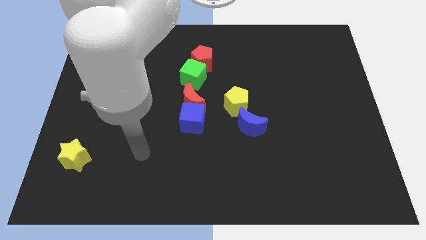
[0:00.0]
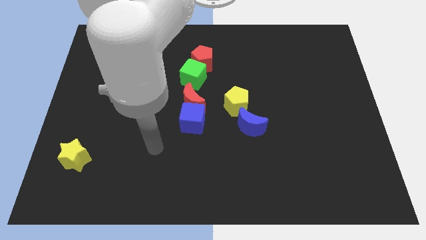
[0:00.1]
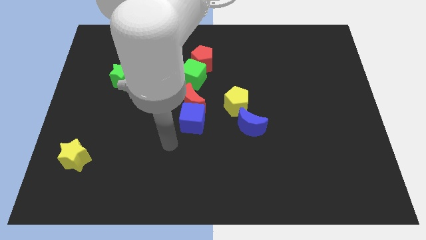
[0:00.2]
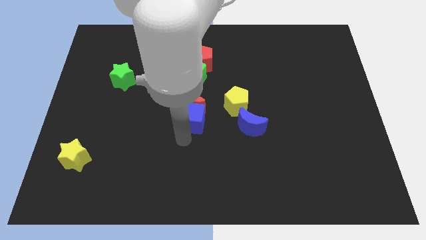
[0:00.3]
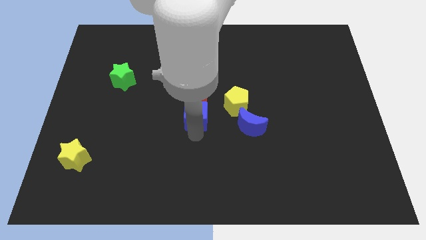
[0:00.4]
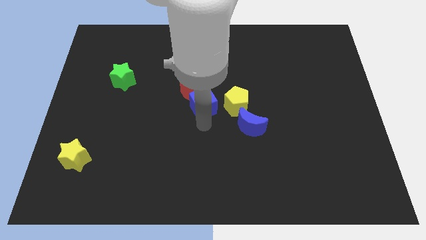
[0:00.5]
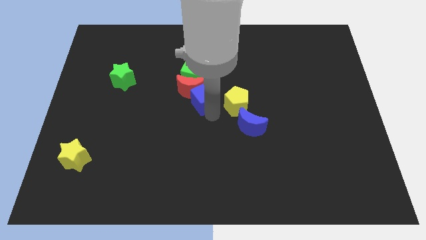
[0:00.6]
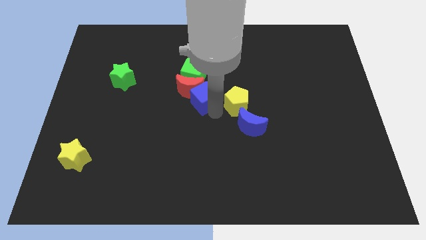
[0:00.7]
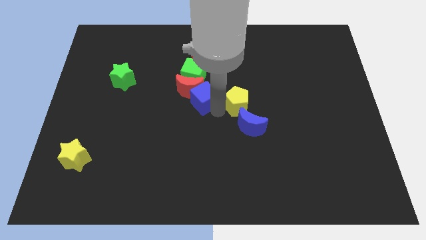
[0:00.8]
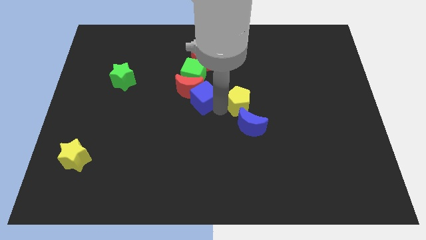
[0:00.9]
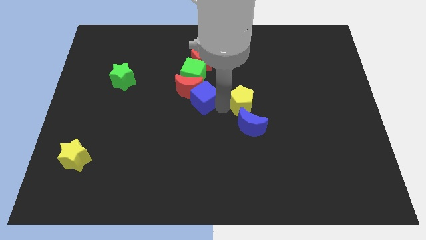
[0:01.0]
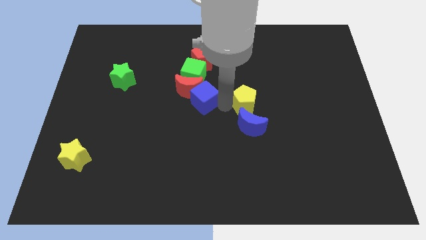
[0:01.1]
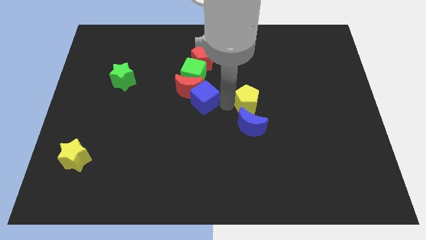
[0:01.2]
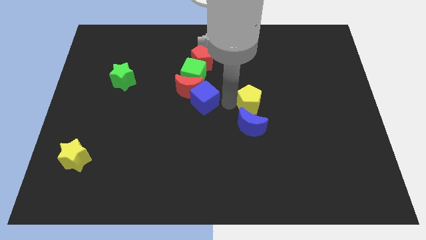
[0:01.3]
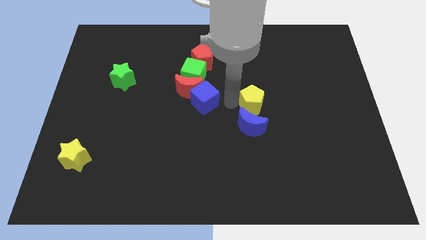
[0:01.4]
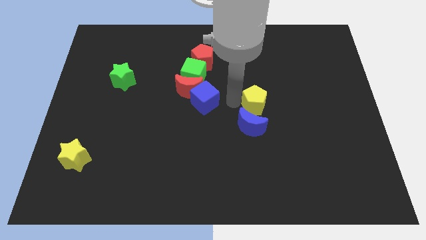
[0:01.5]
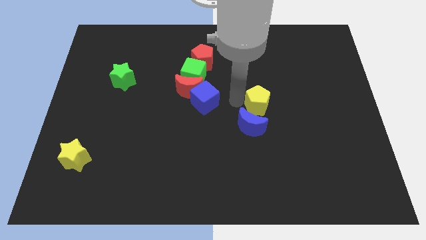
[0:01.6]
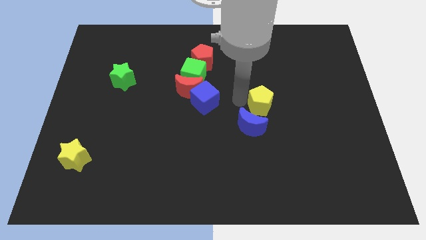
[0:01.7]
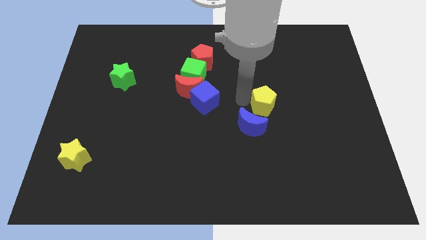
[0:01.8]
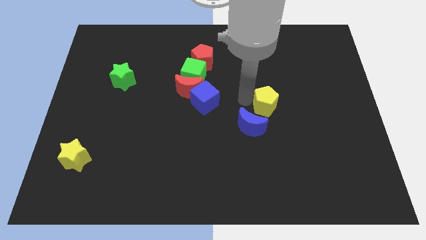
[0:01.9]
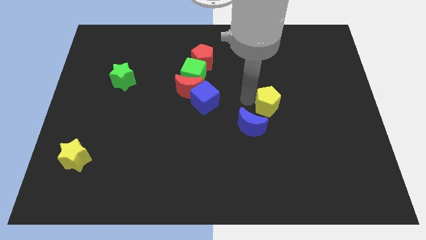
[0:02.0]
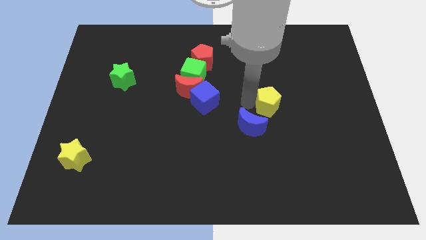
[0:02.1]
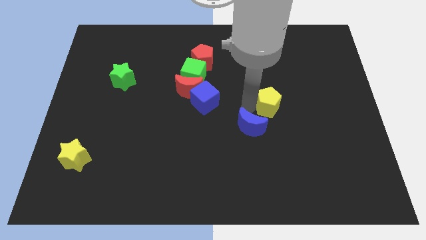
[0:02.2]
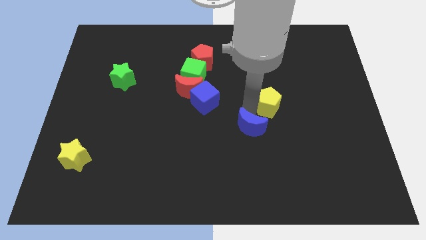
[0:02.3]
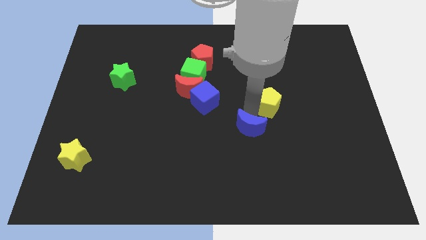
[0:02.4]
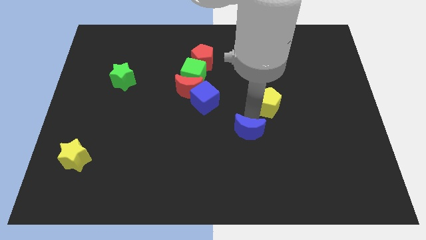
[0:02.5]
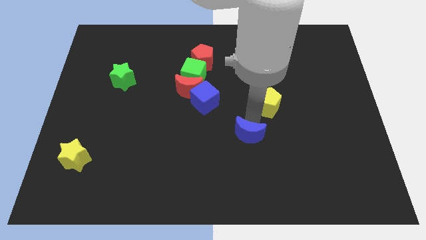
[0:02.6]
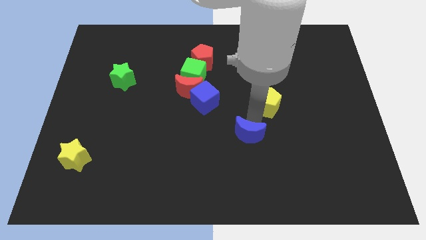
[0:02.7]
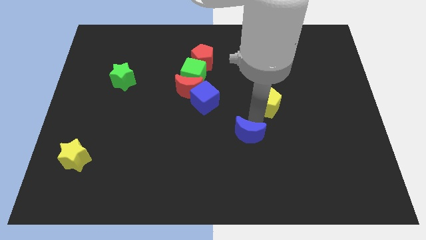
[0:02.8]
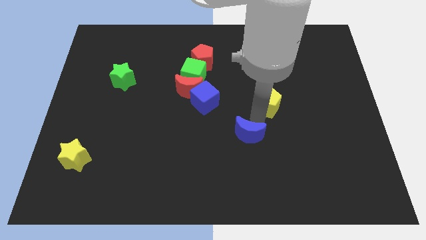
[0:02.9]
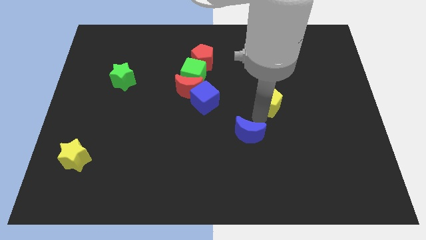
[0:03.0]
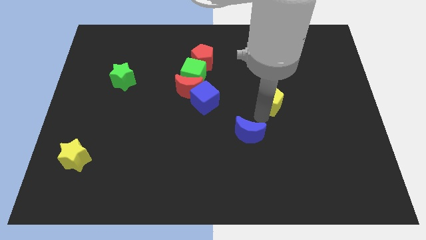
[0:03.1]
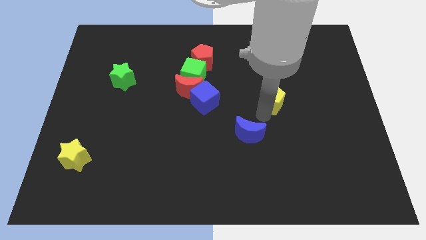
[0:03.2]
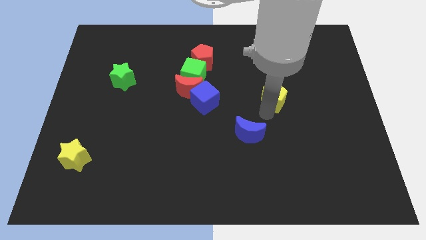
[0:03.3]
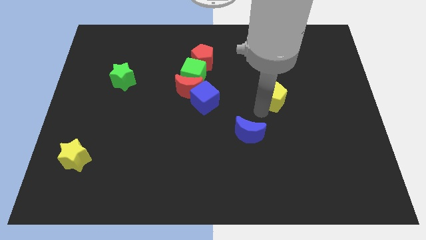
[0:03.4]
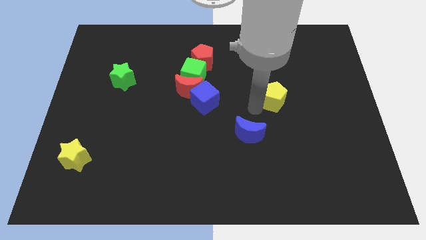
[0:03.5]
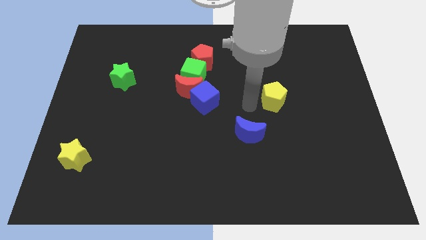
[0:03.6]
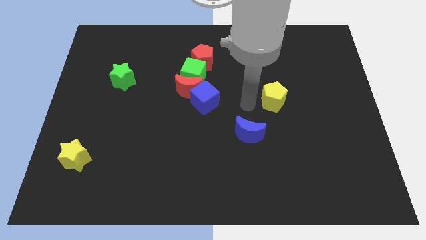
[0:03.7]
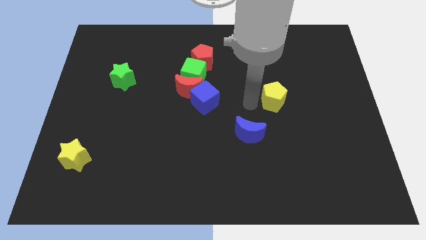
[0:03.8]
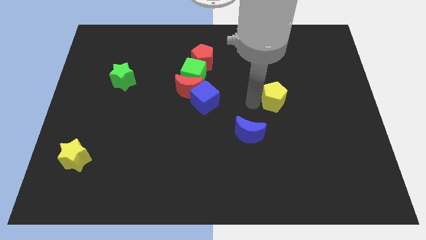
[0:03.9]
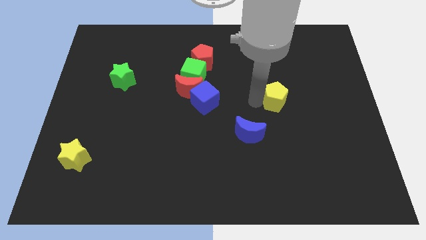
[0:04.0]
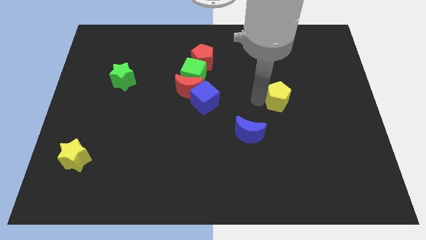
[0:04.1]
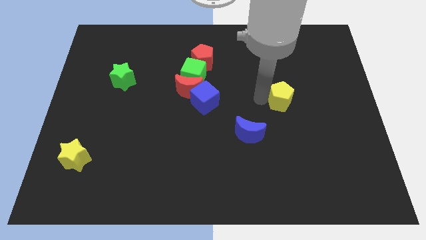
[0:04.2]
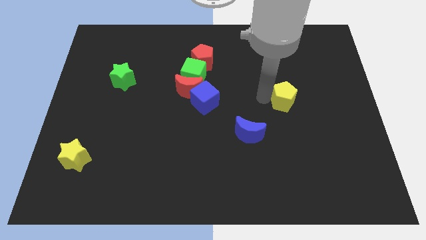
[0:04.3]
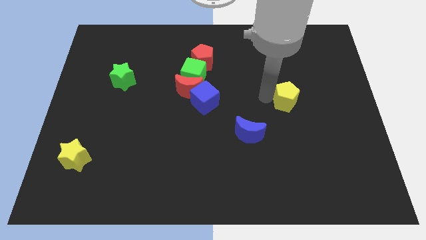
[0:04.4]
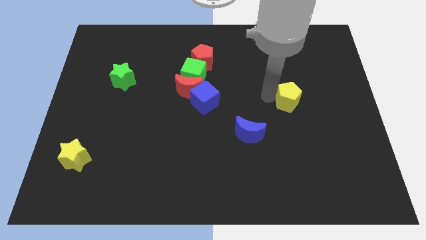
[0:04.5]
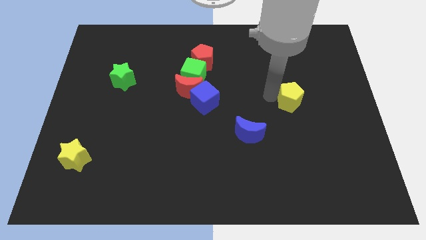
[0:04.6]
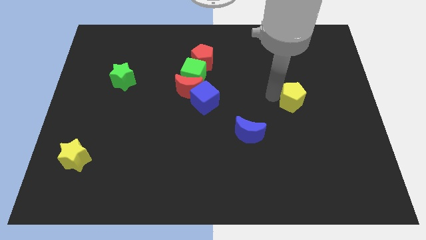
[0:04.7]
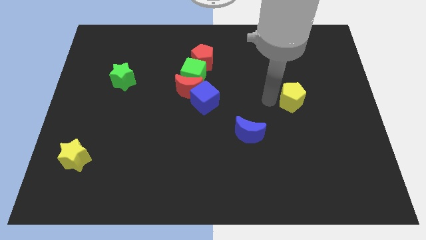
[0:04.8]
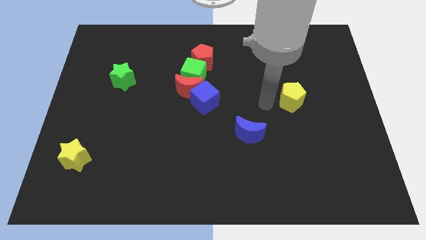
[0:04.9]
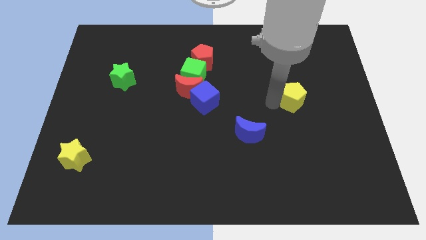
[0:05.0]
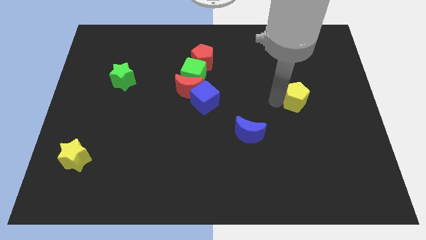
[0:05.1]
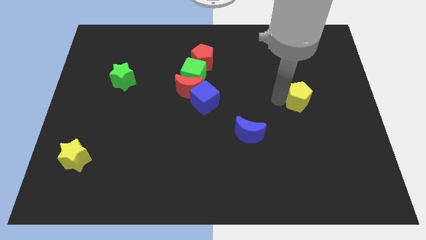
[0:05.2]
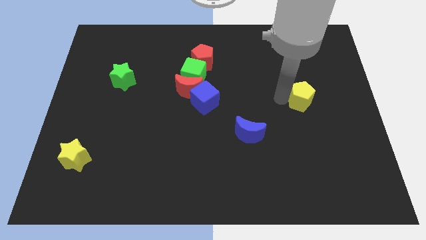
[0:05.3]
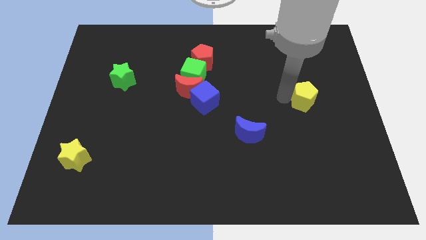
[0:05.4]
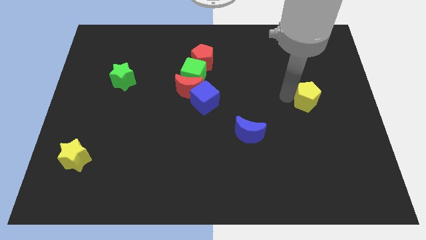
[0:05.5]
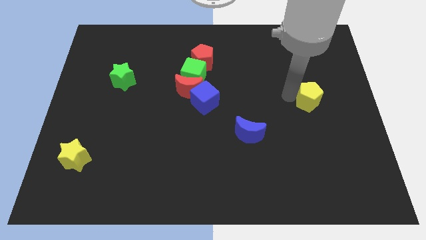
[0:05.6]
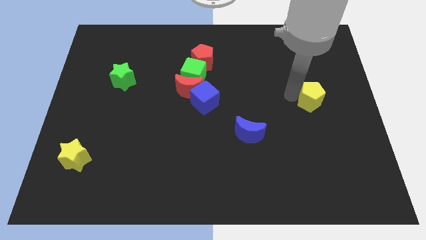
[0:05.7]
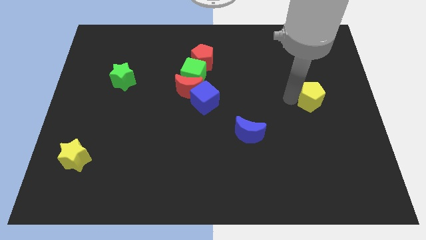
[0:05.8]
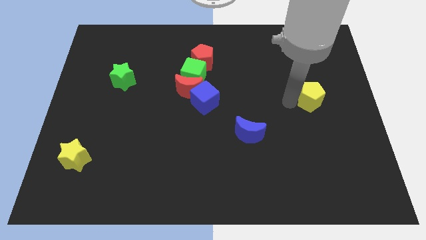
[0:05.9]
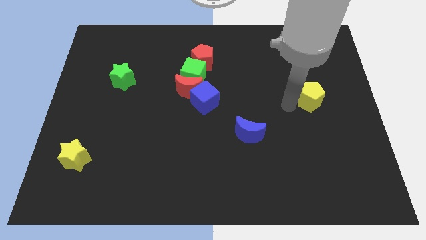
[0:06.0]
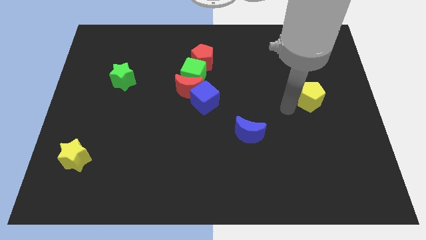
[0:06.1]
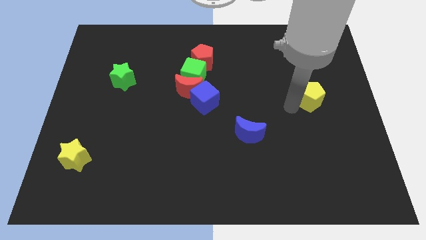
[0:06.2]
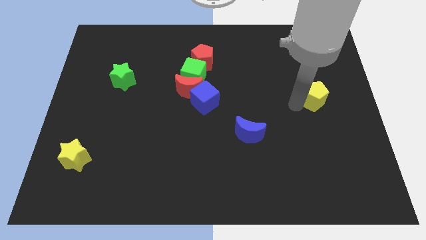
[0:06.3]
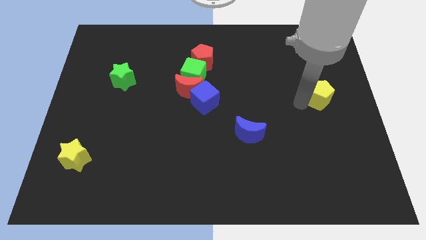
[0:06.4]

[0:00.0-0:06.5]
push the yellow pentagon to the right side
